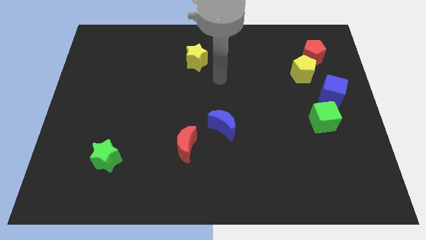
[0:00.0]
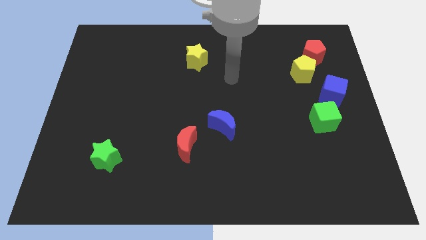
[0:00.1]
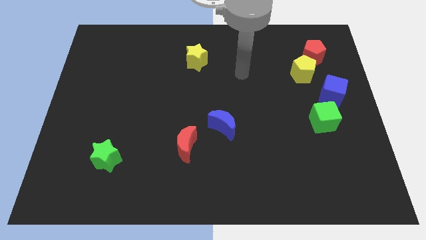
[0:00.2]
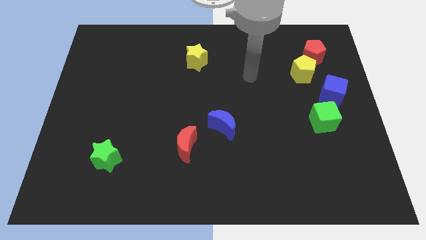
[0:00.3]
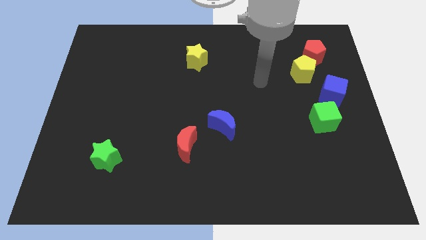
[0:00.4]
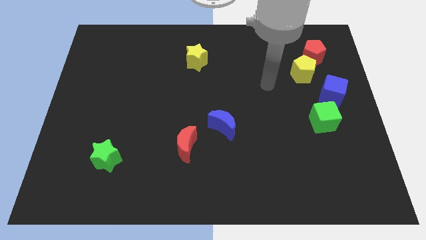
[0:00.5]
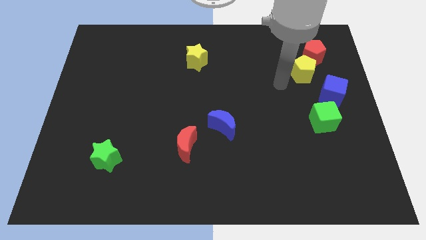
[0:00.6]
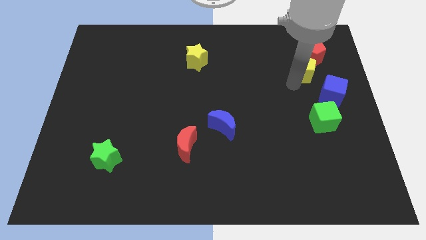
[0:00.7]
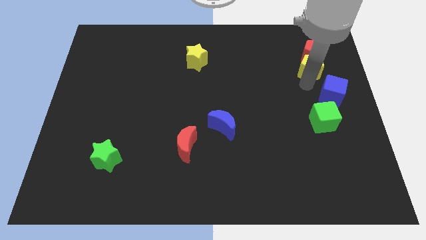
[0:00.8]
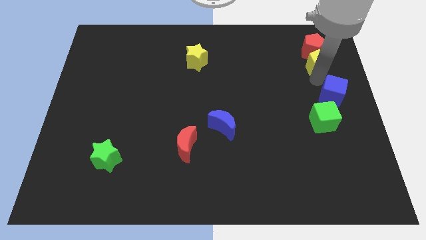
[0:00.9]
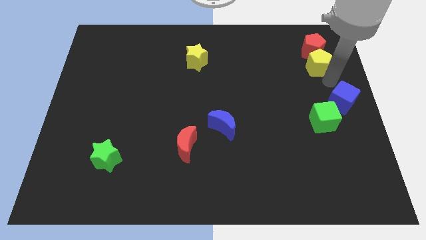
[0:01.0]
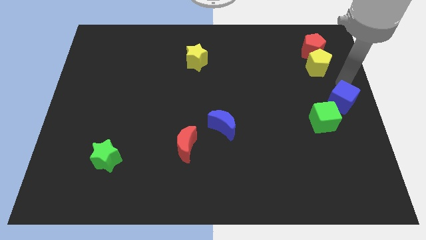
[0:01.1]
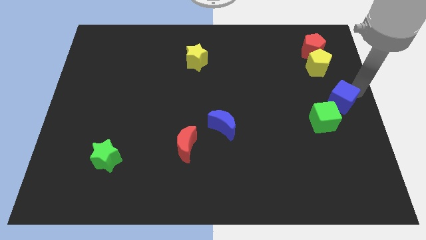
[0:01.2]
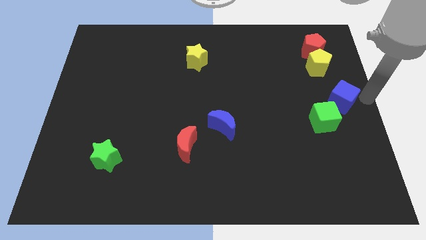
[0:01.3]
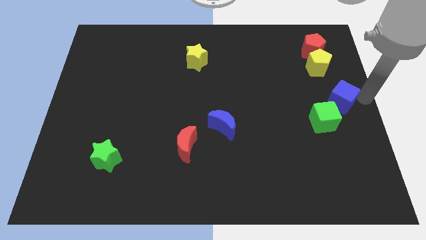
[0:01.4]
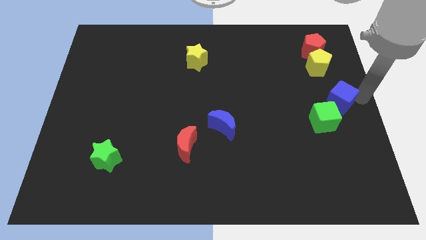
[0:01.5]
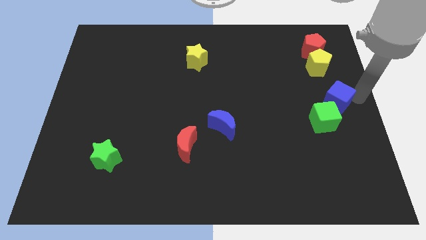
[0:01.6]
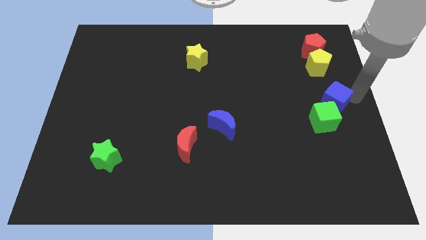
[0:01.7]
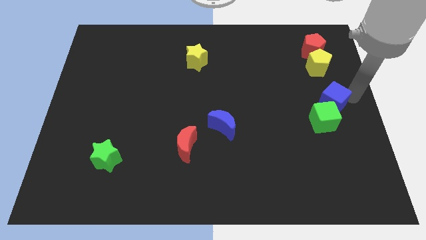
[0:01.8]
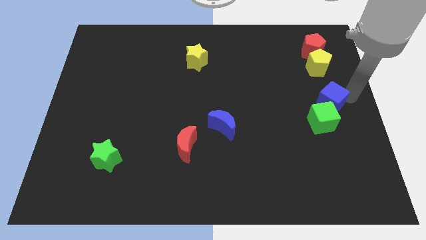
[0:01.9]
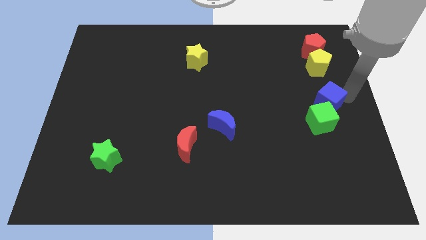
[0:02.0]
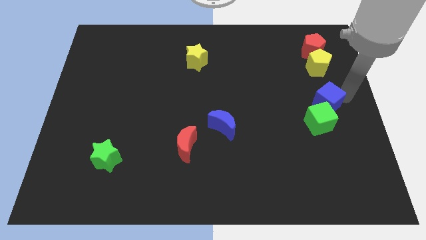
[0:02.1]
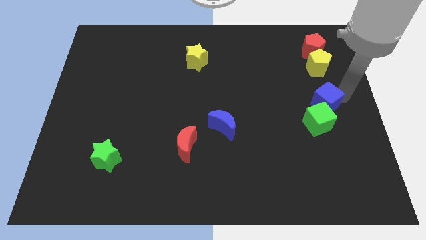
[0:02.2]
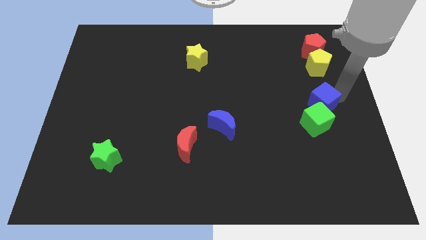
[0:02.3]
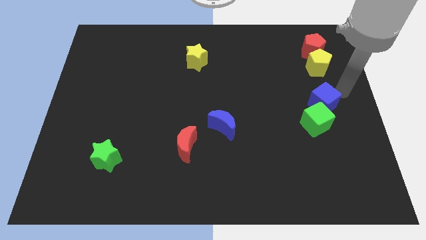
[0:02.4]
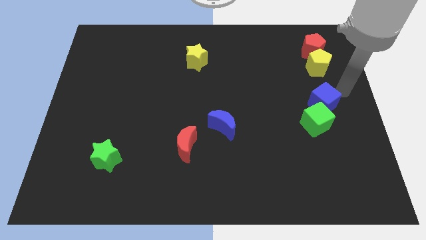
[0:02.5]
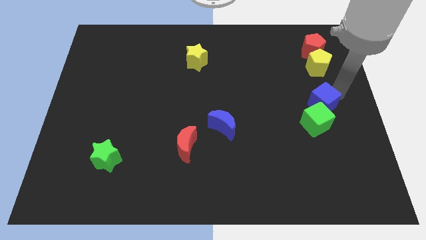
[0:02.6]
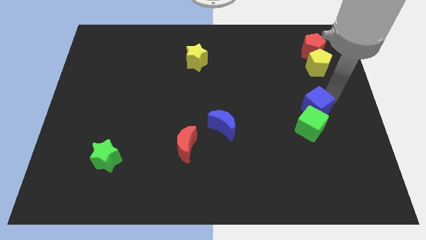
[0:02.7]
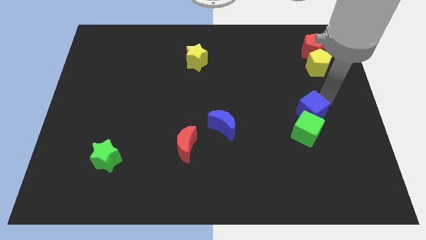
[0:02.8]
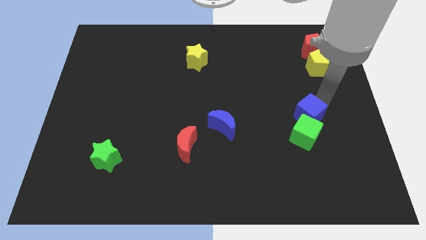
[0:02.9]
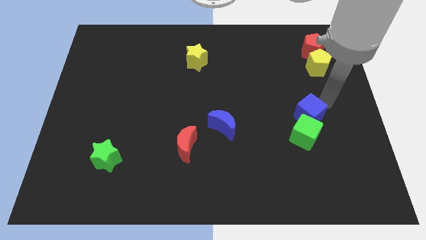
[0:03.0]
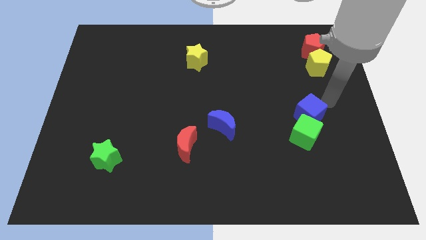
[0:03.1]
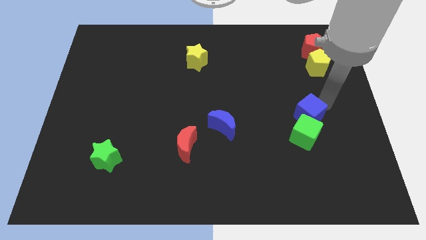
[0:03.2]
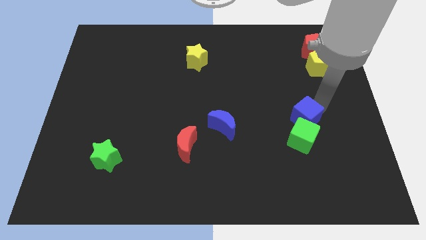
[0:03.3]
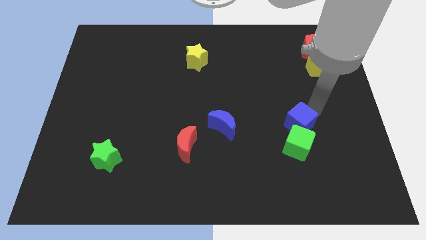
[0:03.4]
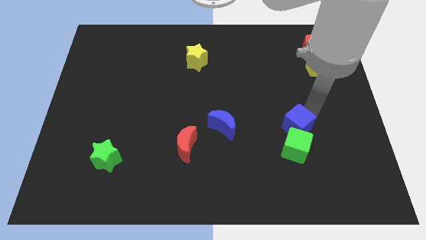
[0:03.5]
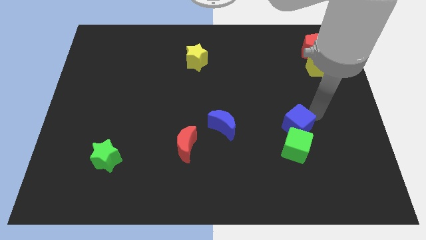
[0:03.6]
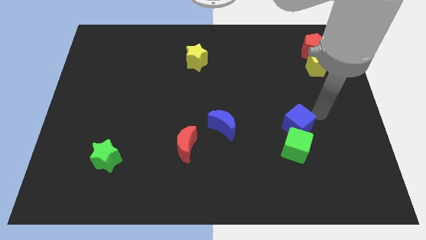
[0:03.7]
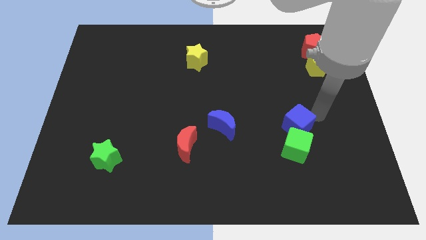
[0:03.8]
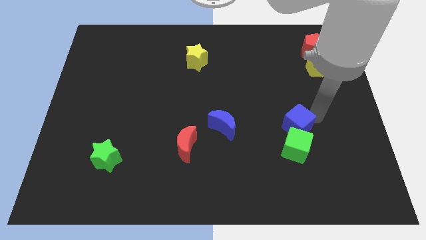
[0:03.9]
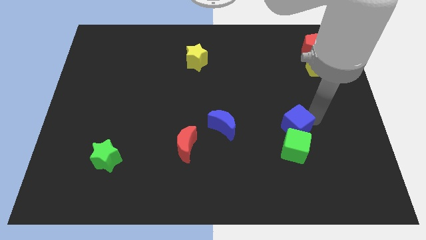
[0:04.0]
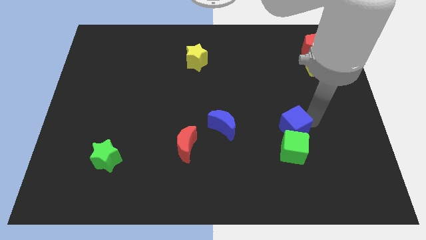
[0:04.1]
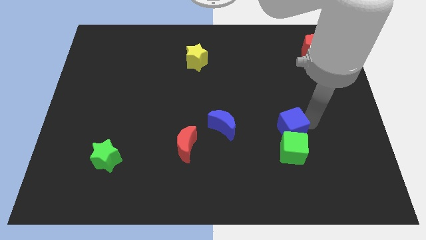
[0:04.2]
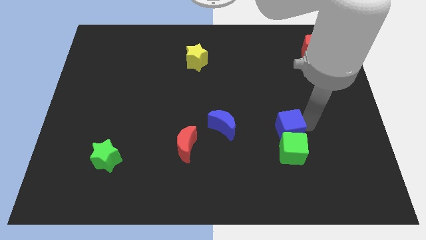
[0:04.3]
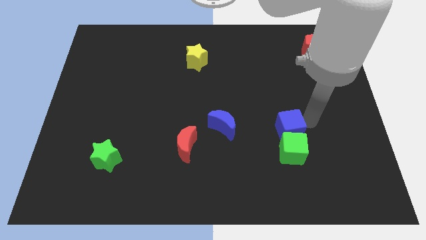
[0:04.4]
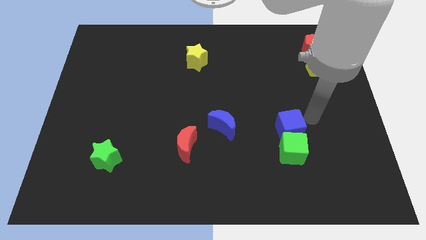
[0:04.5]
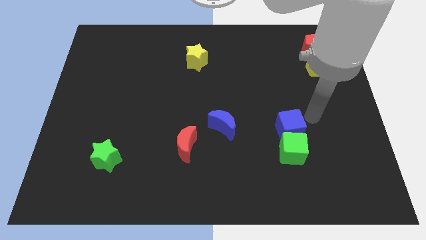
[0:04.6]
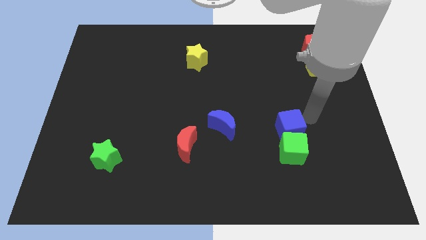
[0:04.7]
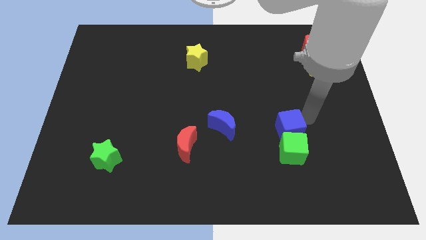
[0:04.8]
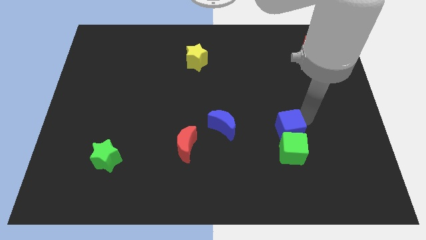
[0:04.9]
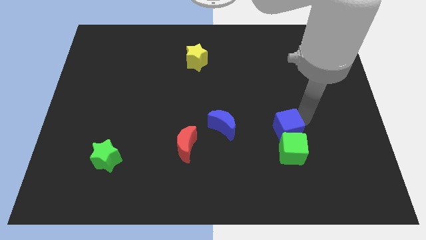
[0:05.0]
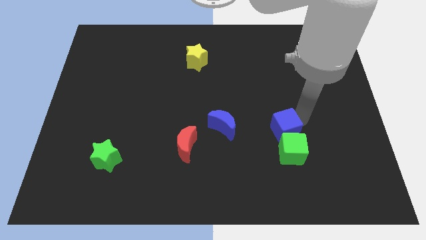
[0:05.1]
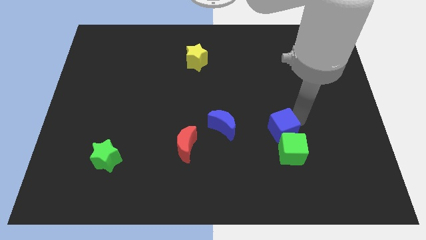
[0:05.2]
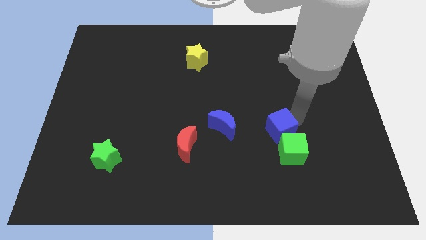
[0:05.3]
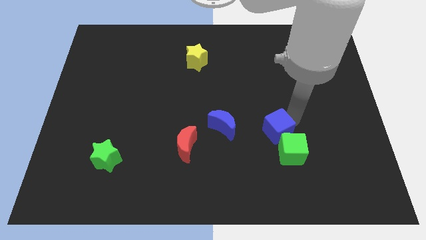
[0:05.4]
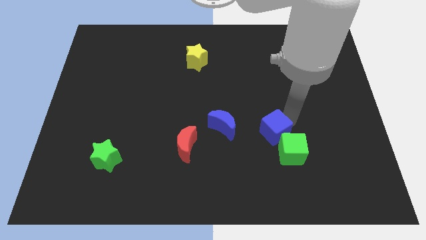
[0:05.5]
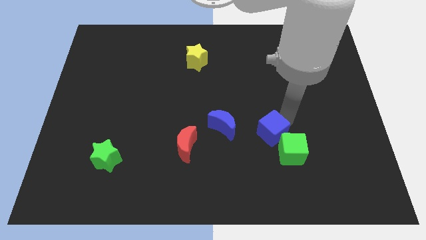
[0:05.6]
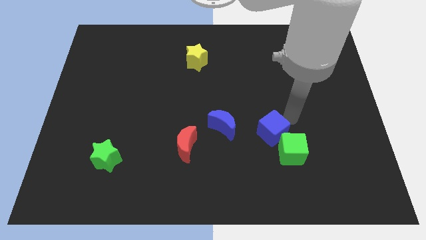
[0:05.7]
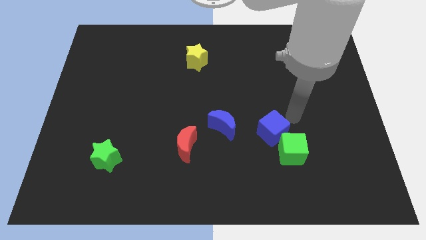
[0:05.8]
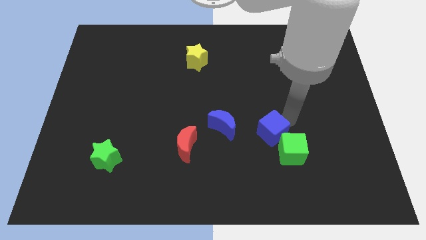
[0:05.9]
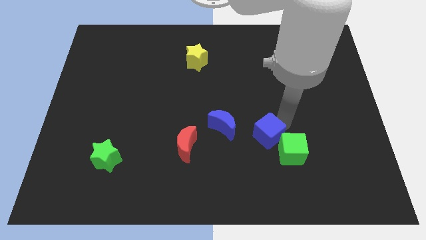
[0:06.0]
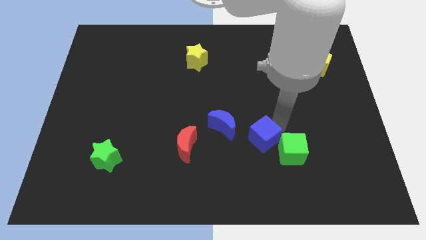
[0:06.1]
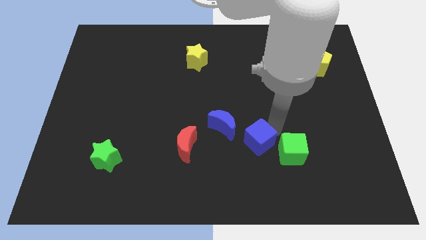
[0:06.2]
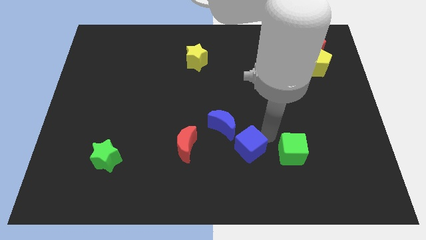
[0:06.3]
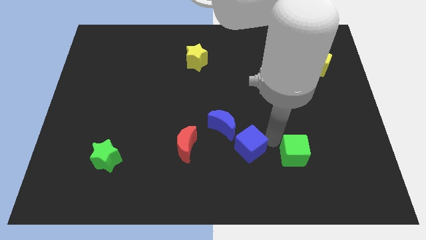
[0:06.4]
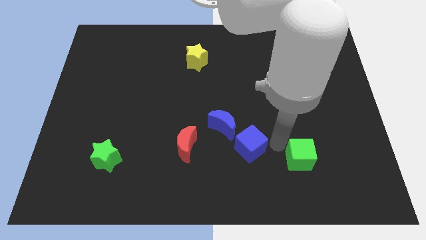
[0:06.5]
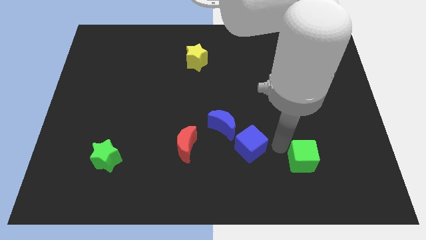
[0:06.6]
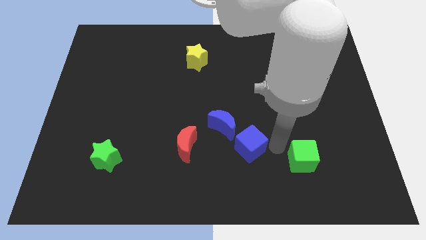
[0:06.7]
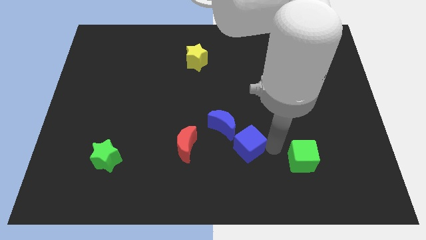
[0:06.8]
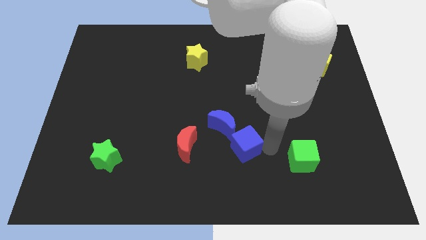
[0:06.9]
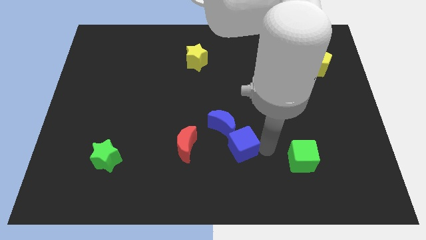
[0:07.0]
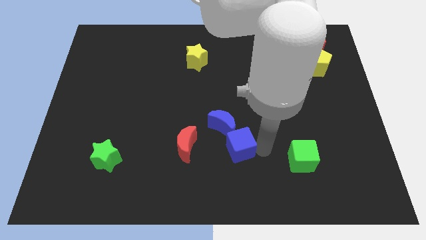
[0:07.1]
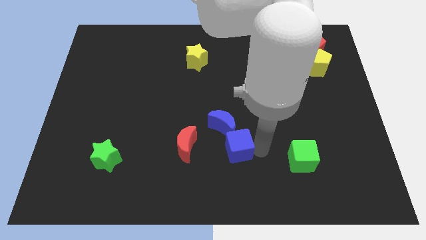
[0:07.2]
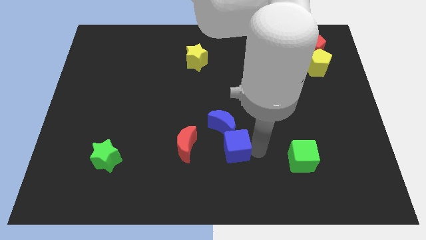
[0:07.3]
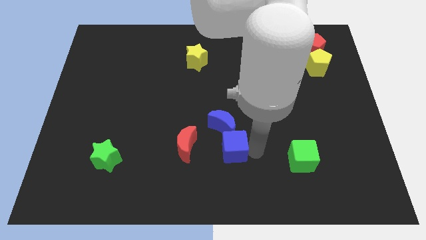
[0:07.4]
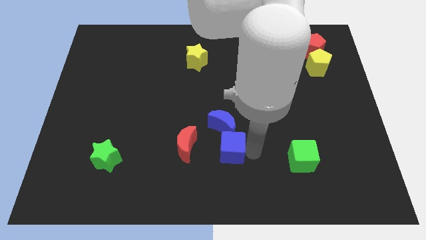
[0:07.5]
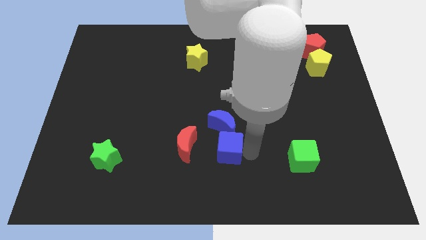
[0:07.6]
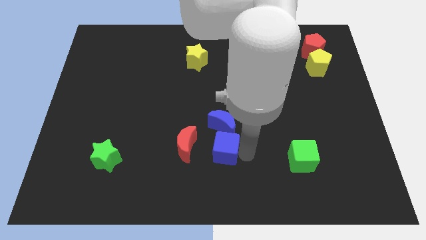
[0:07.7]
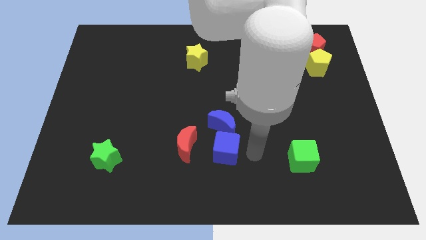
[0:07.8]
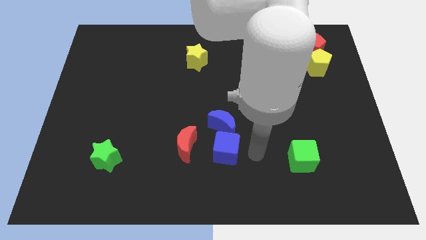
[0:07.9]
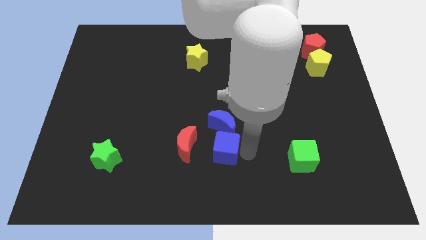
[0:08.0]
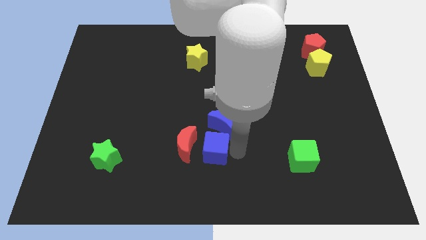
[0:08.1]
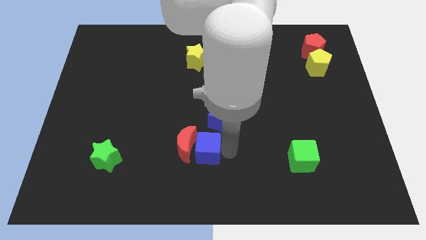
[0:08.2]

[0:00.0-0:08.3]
move the blue cube next to the red moon
